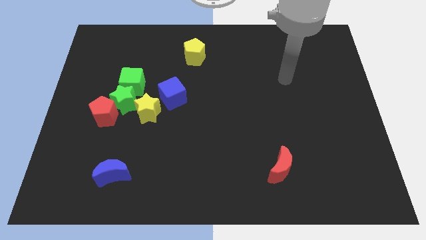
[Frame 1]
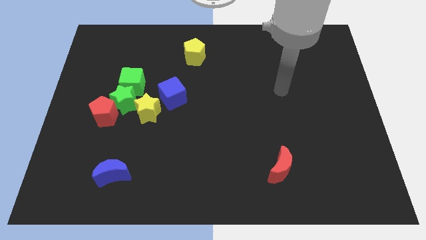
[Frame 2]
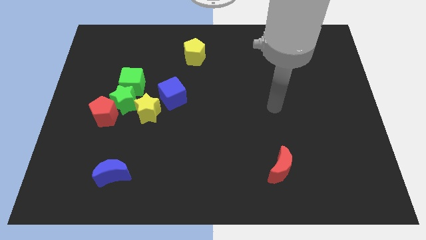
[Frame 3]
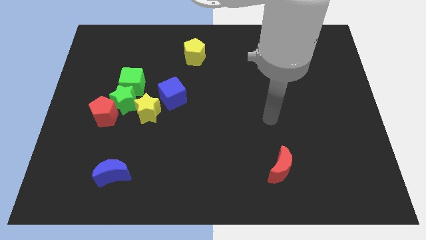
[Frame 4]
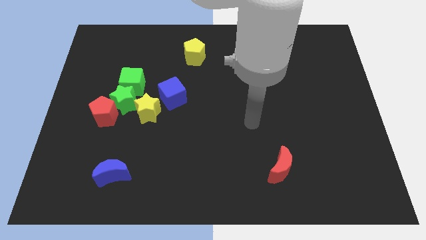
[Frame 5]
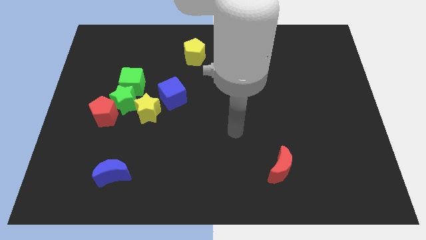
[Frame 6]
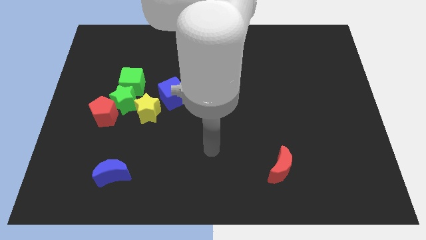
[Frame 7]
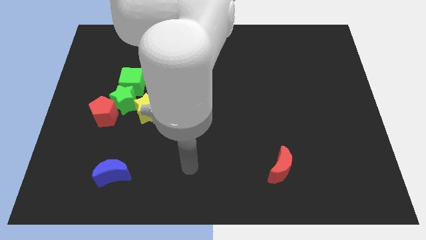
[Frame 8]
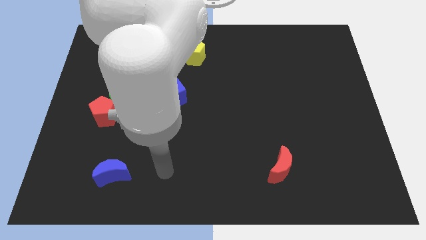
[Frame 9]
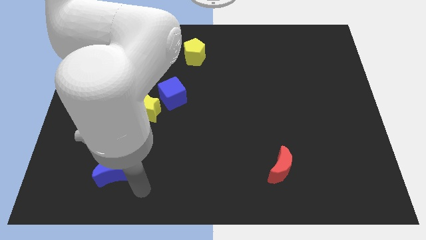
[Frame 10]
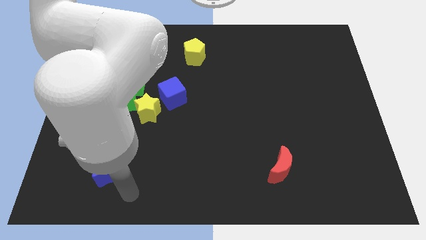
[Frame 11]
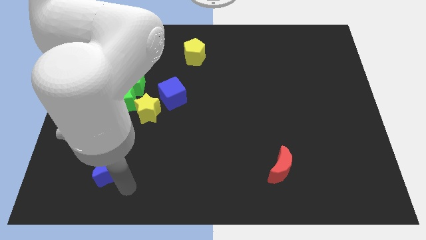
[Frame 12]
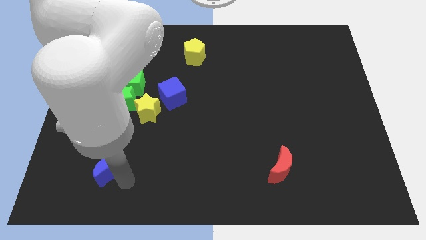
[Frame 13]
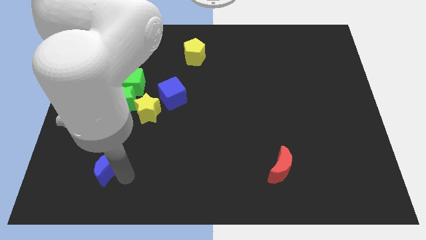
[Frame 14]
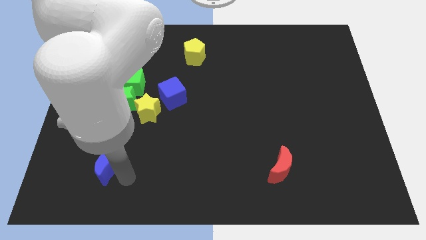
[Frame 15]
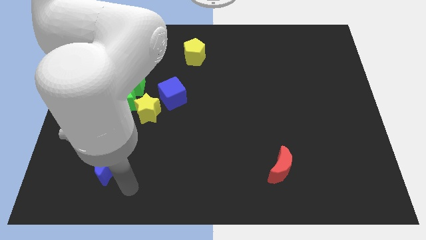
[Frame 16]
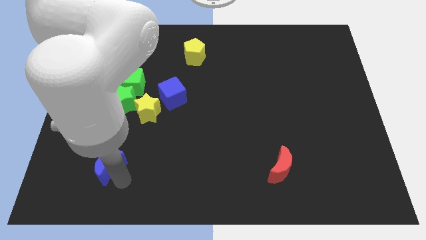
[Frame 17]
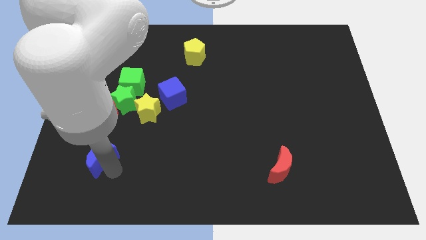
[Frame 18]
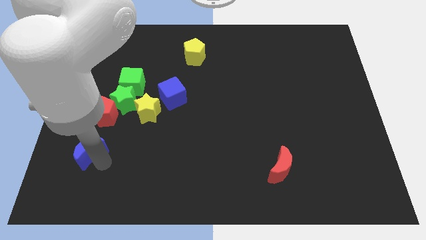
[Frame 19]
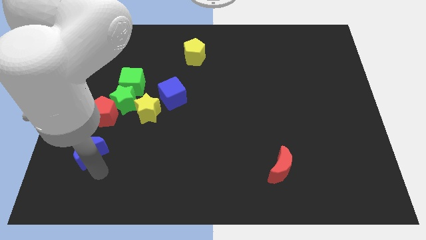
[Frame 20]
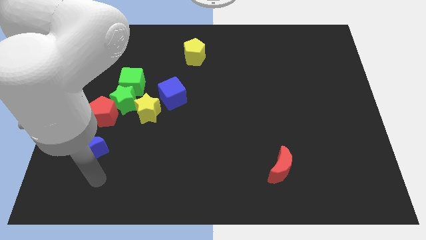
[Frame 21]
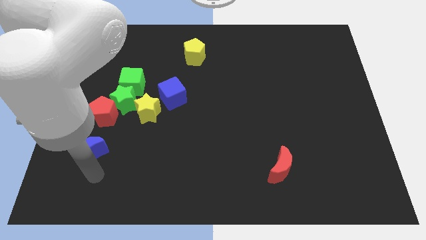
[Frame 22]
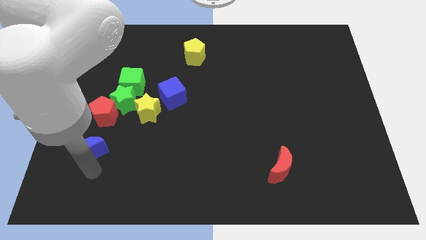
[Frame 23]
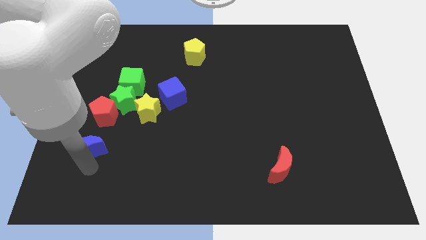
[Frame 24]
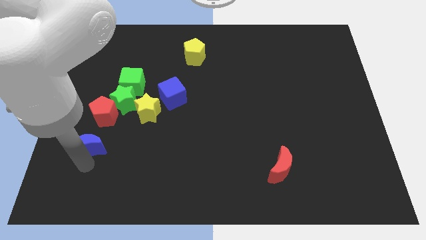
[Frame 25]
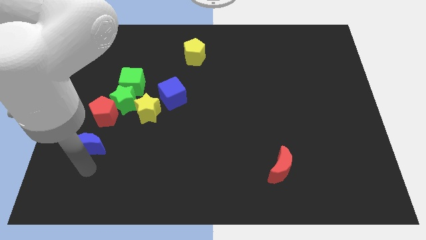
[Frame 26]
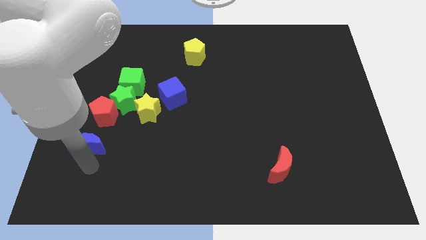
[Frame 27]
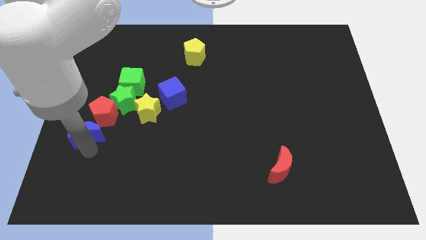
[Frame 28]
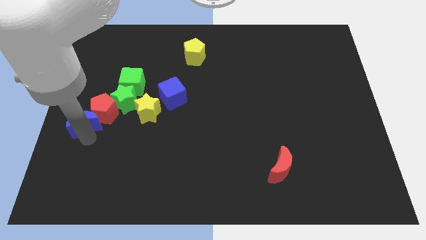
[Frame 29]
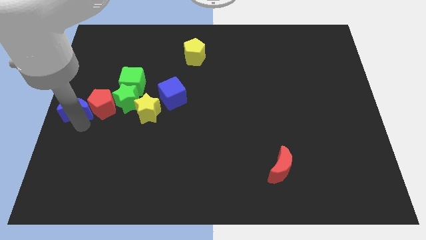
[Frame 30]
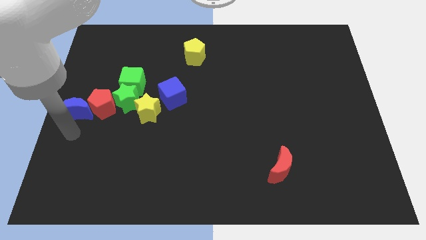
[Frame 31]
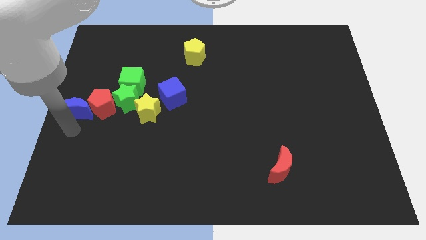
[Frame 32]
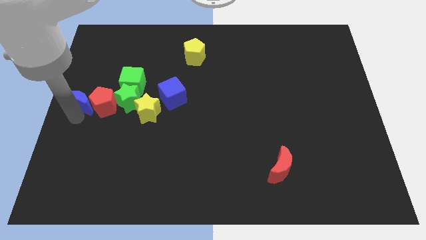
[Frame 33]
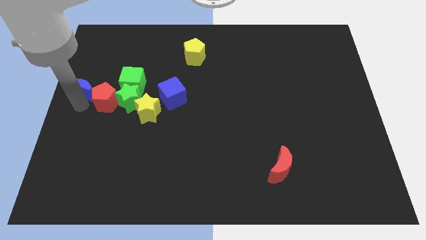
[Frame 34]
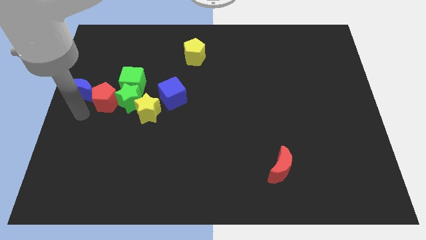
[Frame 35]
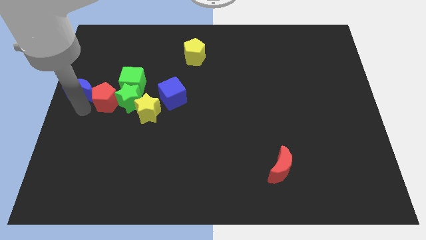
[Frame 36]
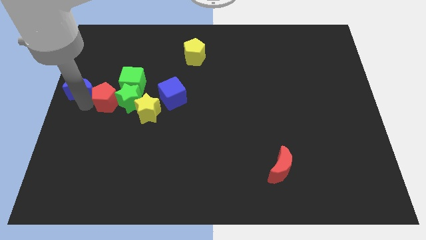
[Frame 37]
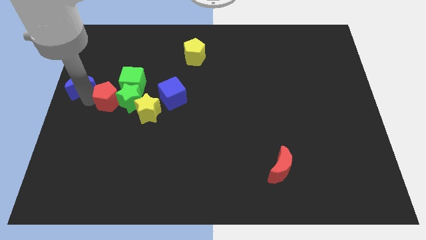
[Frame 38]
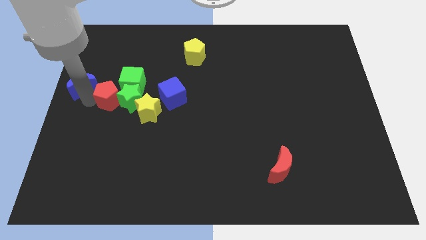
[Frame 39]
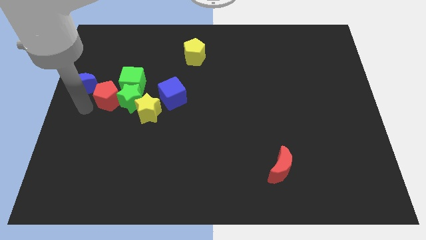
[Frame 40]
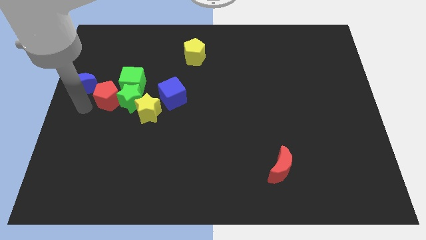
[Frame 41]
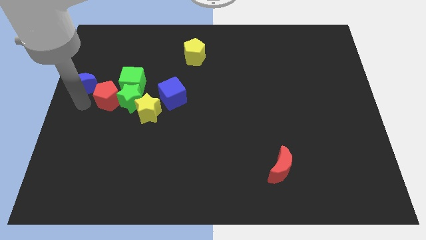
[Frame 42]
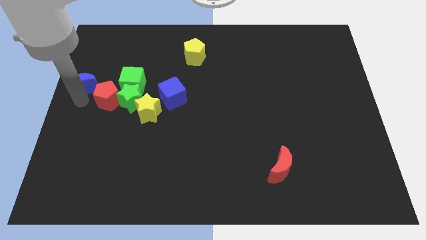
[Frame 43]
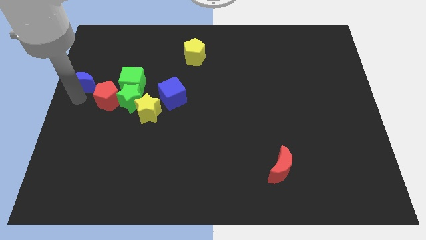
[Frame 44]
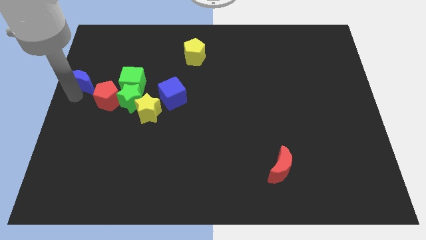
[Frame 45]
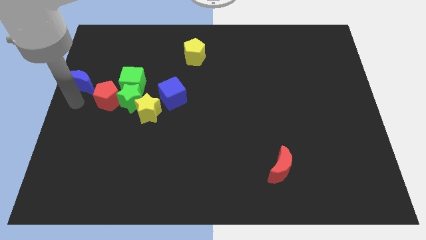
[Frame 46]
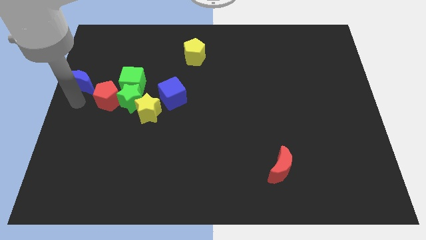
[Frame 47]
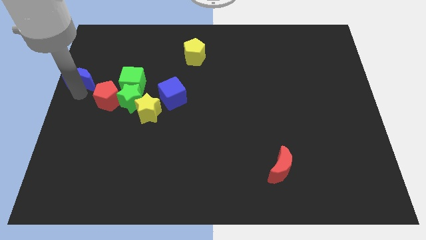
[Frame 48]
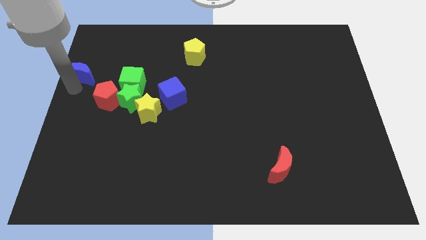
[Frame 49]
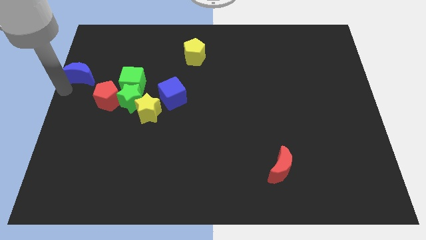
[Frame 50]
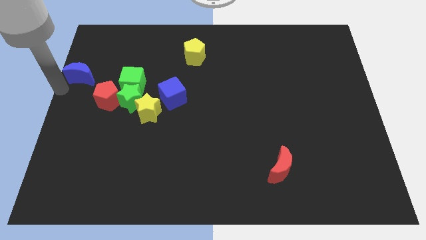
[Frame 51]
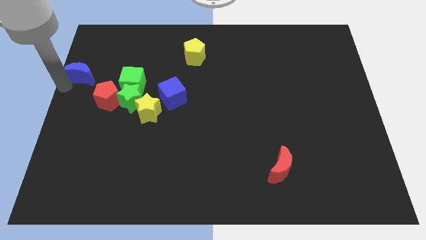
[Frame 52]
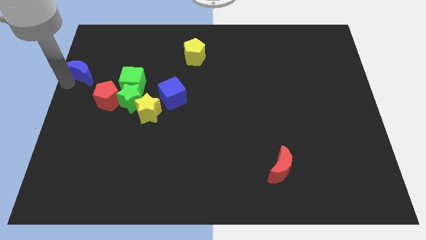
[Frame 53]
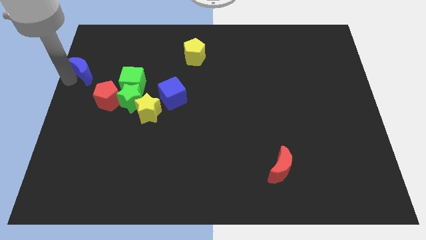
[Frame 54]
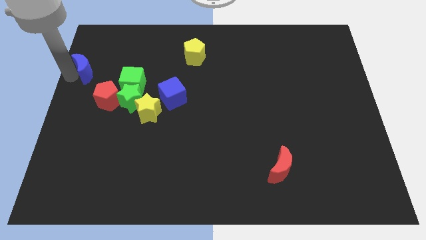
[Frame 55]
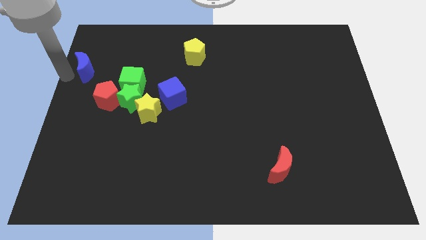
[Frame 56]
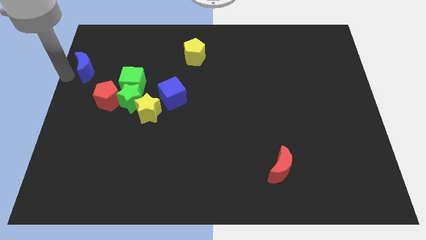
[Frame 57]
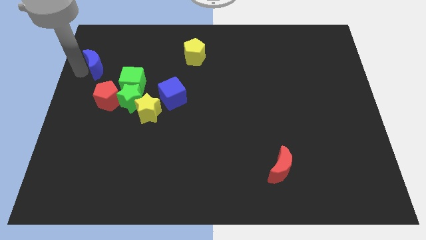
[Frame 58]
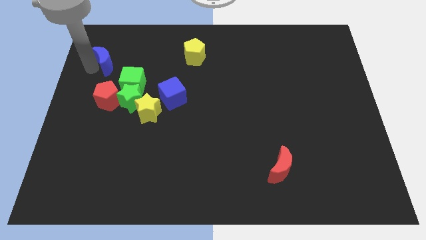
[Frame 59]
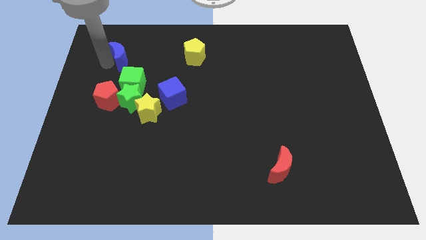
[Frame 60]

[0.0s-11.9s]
push the blue moon above the green cube

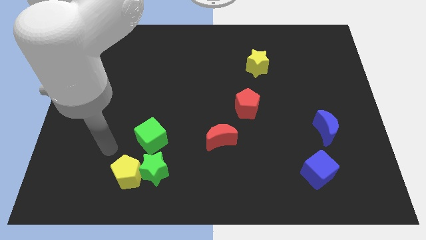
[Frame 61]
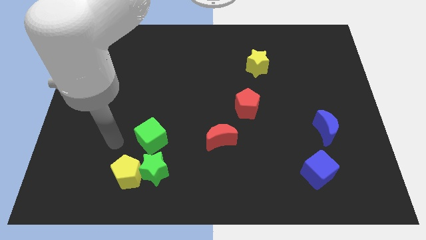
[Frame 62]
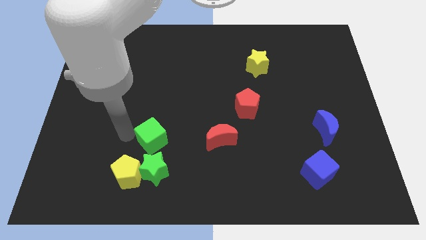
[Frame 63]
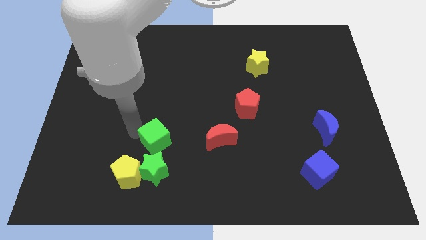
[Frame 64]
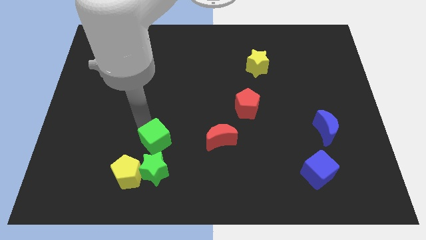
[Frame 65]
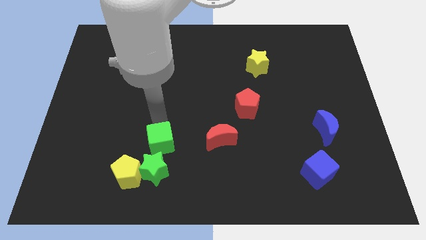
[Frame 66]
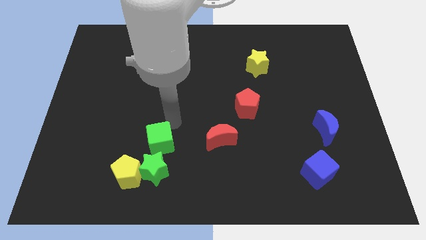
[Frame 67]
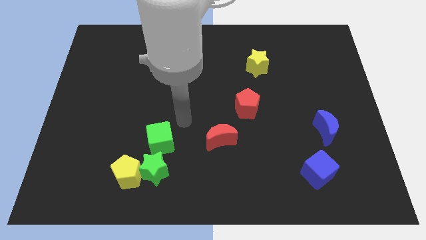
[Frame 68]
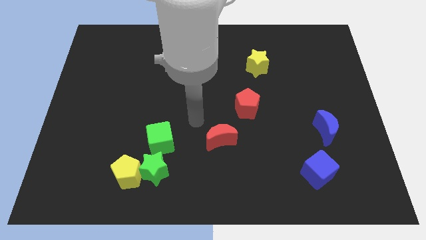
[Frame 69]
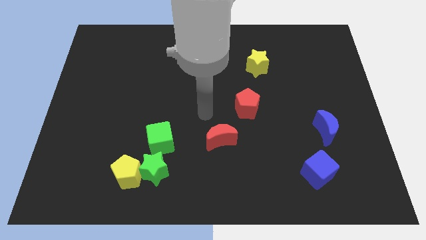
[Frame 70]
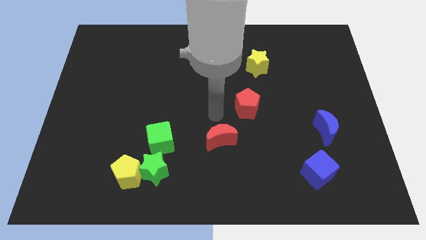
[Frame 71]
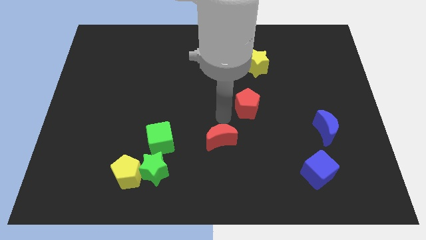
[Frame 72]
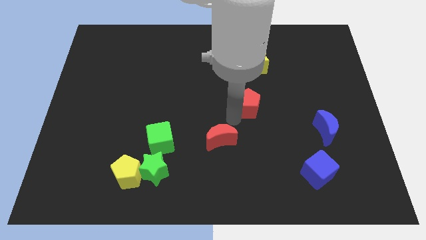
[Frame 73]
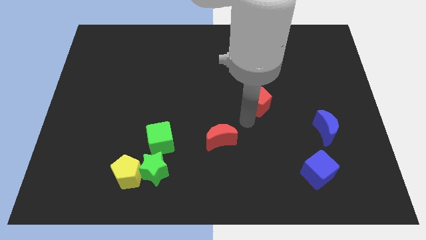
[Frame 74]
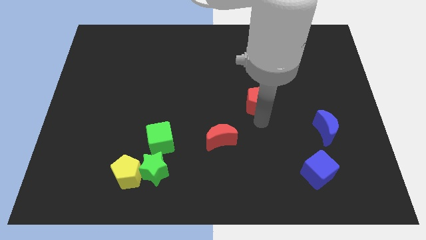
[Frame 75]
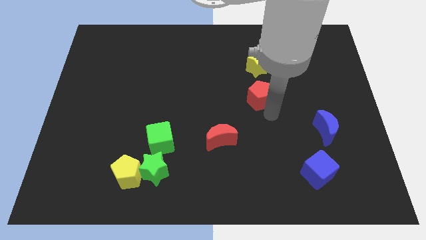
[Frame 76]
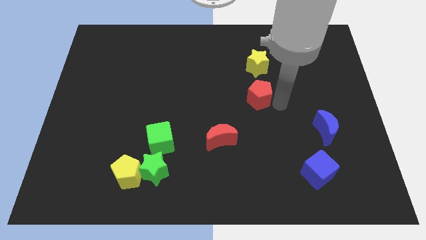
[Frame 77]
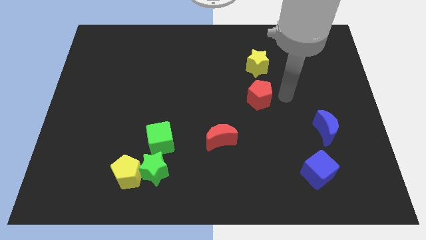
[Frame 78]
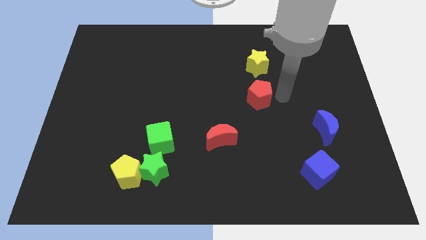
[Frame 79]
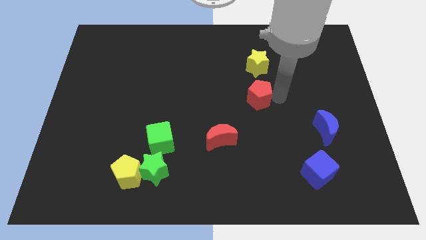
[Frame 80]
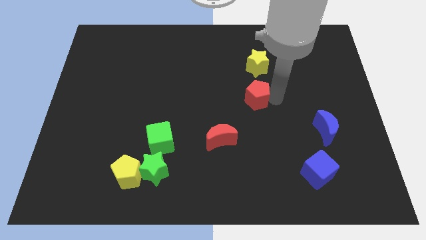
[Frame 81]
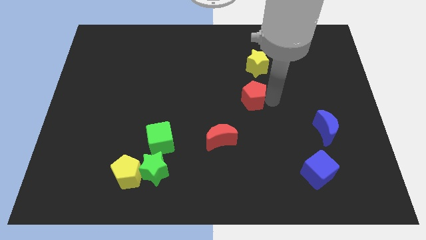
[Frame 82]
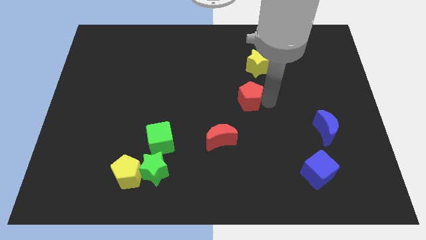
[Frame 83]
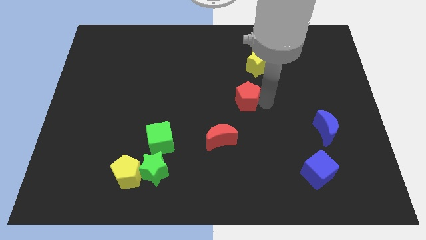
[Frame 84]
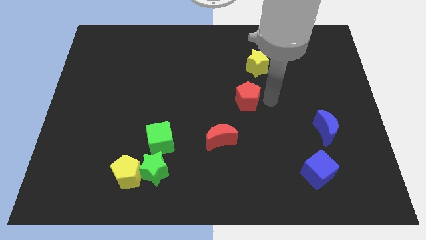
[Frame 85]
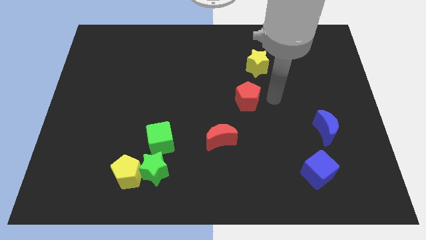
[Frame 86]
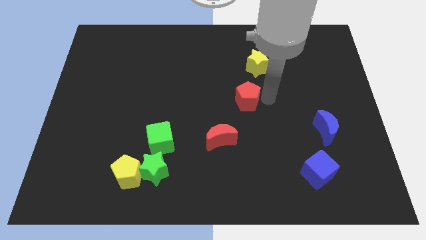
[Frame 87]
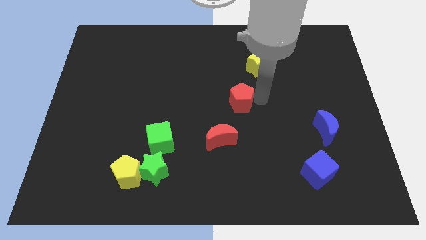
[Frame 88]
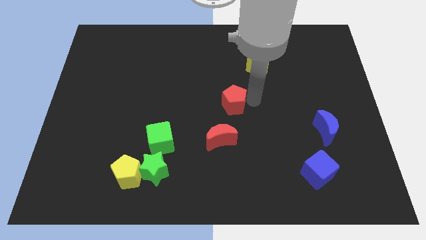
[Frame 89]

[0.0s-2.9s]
move the red pentagon above the red moon
